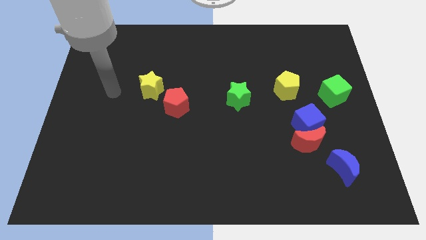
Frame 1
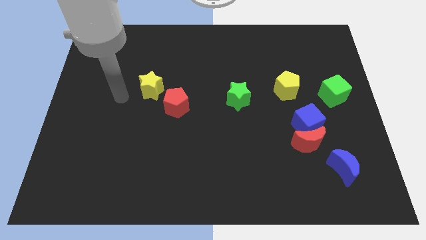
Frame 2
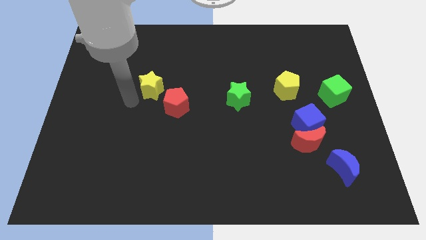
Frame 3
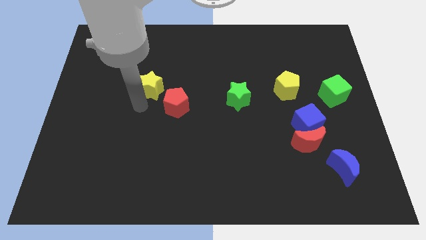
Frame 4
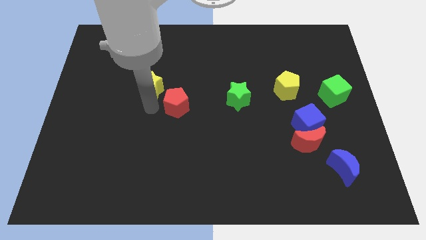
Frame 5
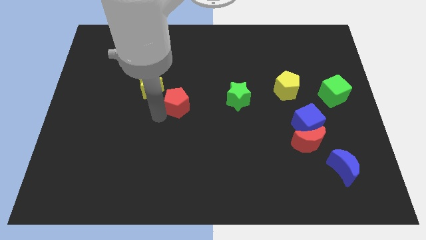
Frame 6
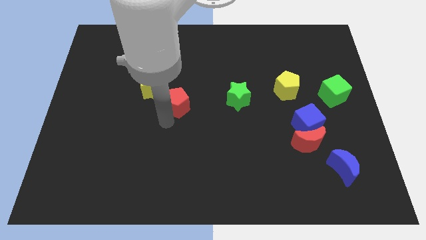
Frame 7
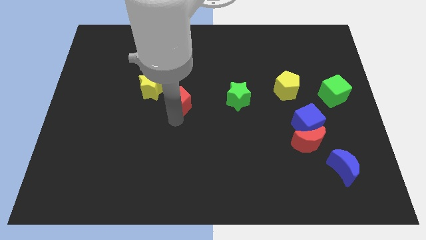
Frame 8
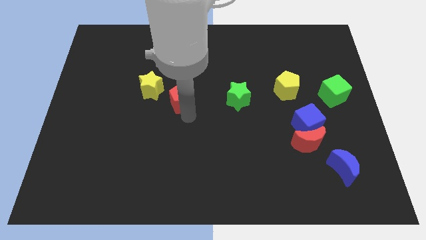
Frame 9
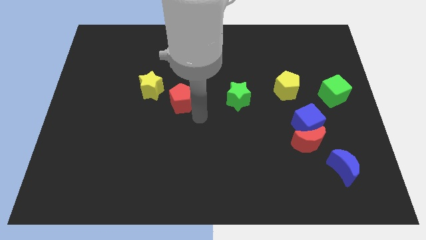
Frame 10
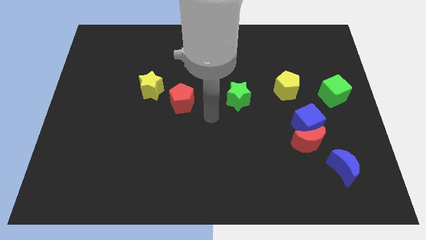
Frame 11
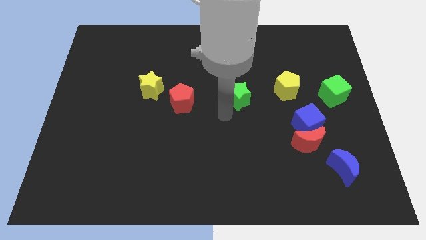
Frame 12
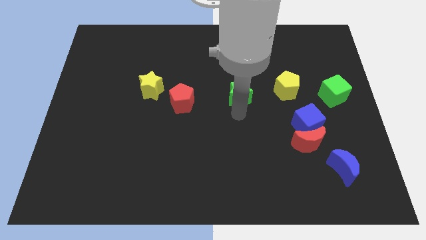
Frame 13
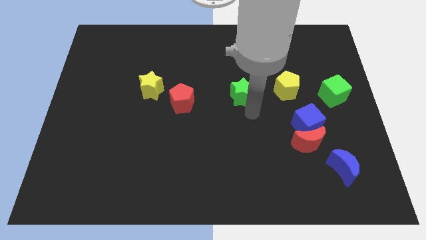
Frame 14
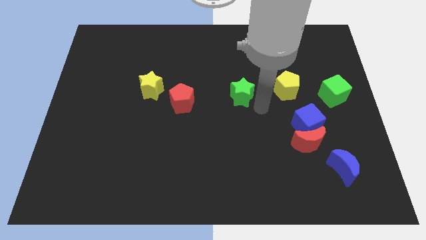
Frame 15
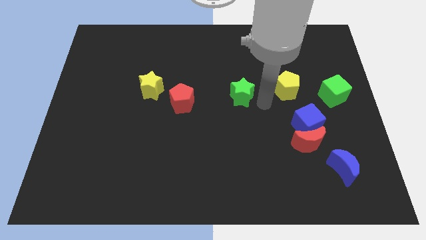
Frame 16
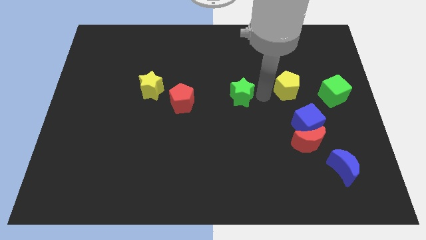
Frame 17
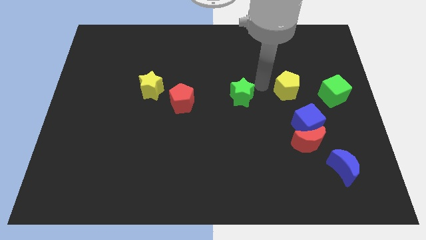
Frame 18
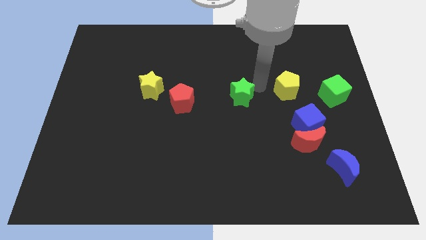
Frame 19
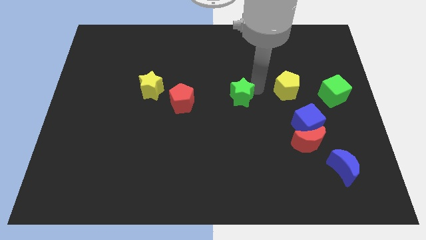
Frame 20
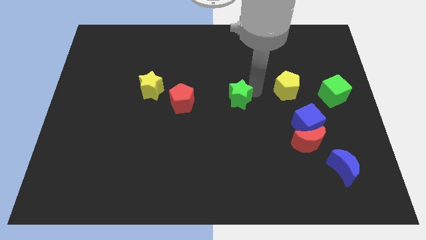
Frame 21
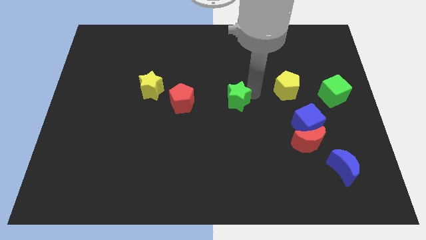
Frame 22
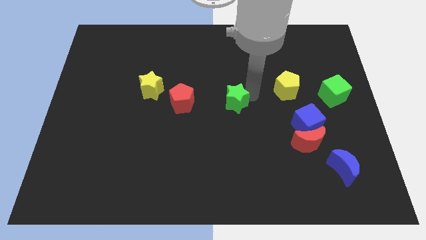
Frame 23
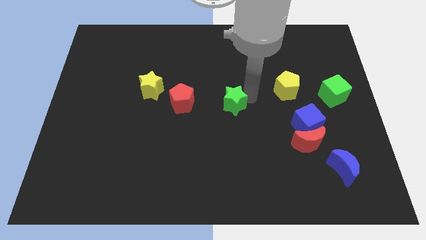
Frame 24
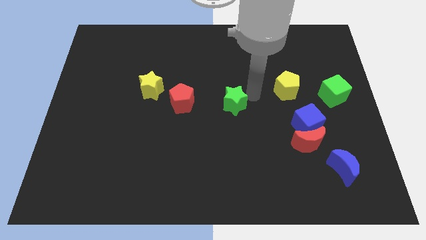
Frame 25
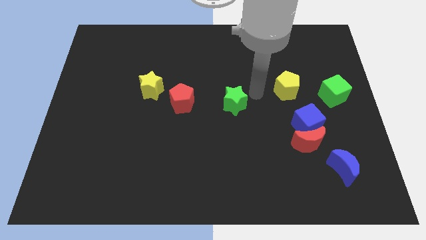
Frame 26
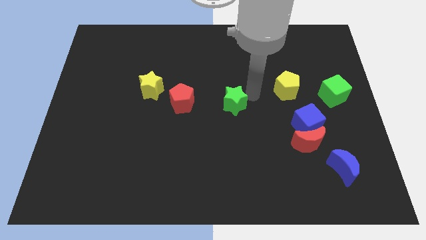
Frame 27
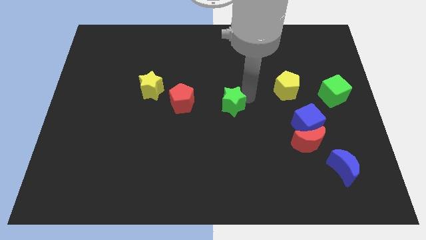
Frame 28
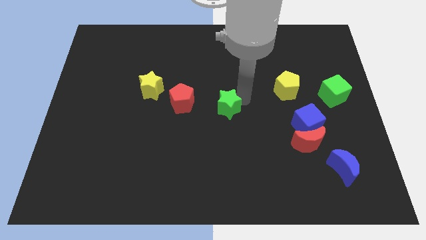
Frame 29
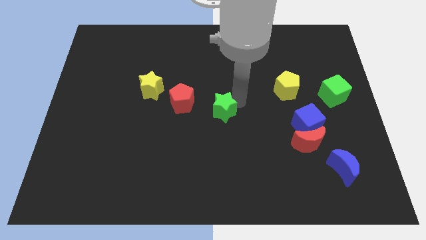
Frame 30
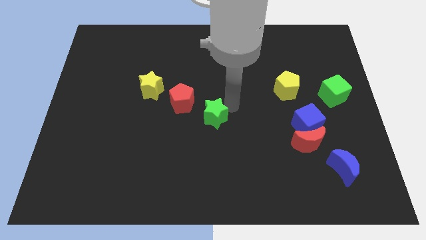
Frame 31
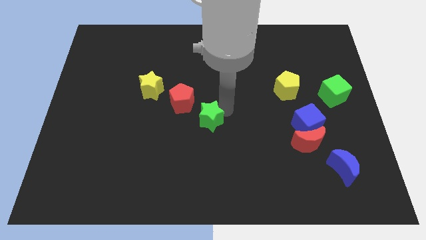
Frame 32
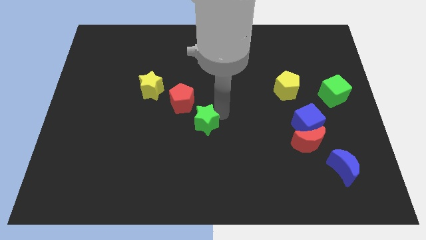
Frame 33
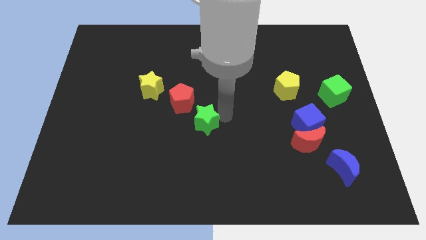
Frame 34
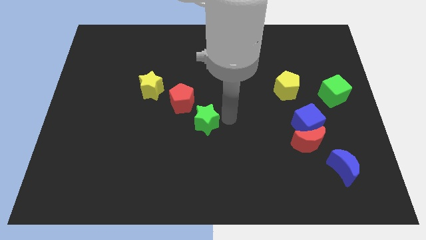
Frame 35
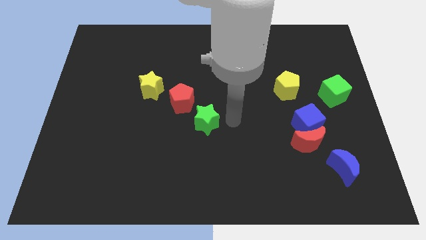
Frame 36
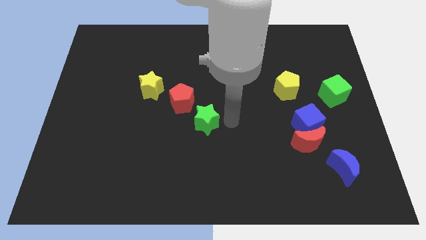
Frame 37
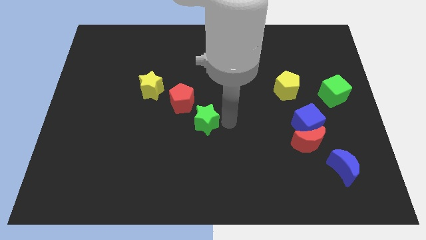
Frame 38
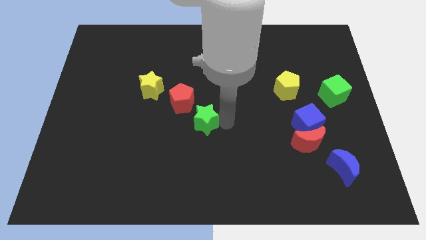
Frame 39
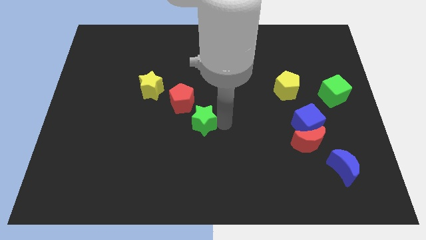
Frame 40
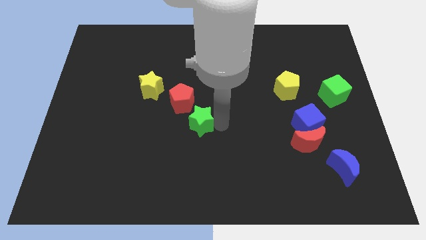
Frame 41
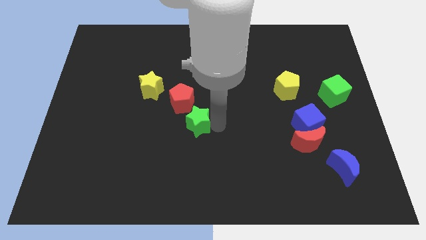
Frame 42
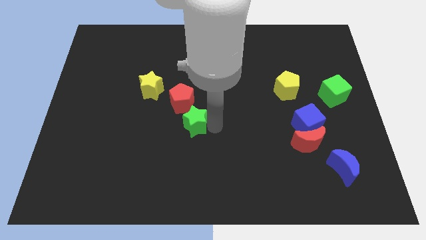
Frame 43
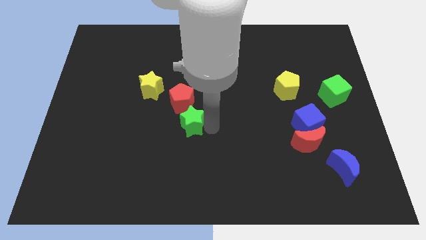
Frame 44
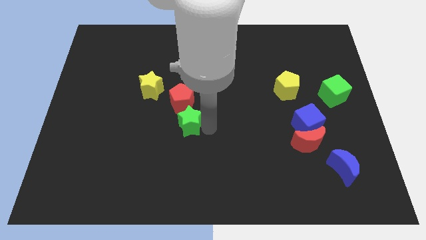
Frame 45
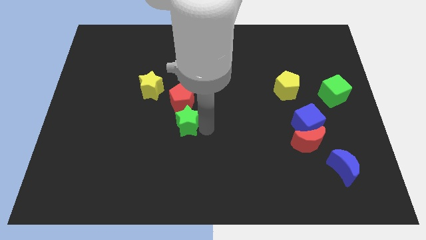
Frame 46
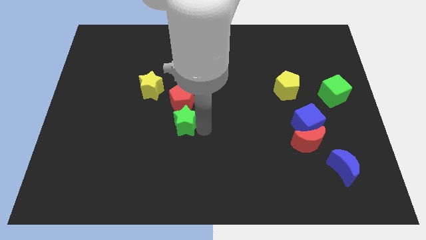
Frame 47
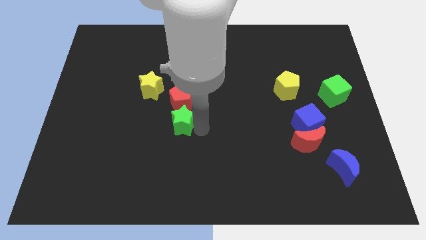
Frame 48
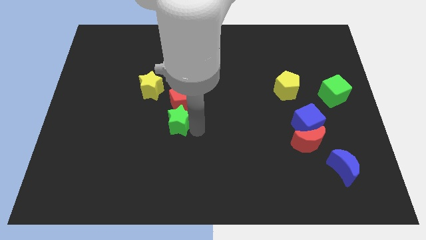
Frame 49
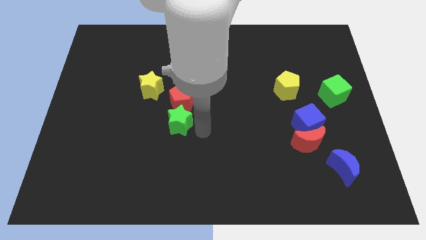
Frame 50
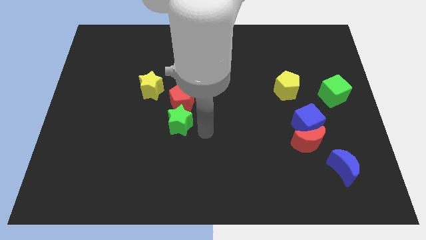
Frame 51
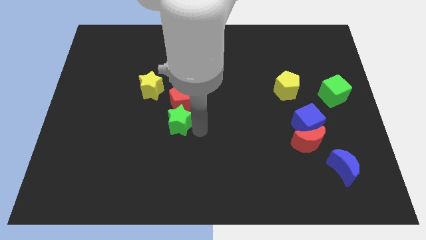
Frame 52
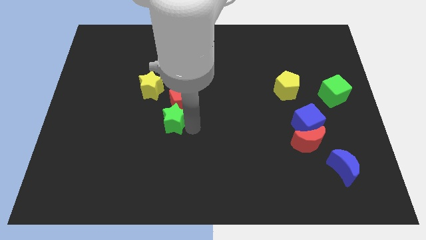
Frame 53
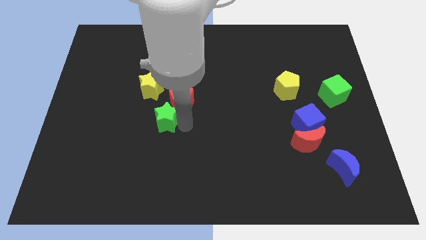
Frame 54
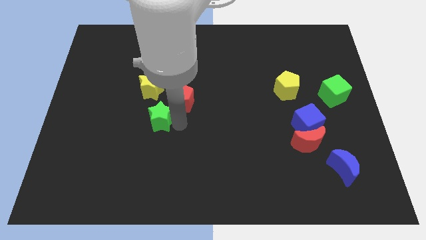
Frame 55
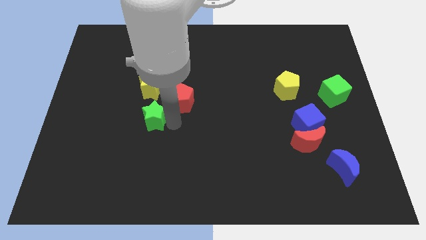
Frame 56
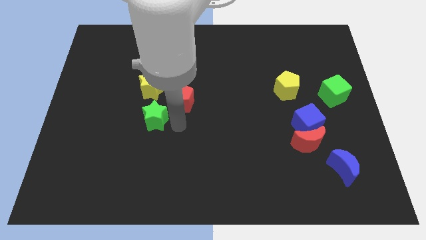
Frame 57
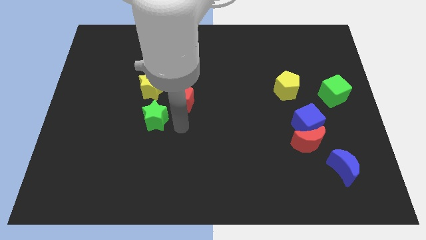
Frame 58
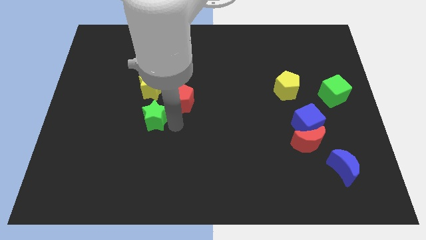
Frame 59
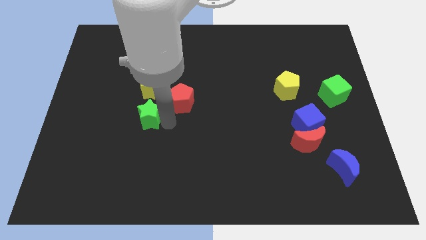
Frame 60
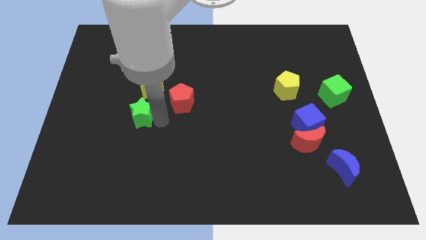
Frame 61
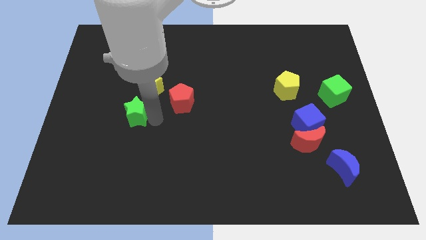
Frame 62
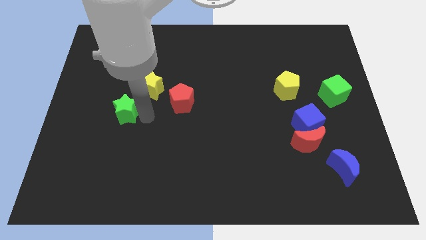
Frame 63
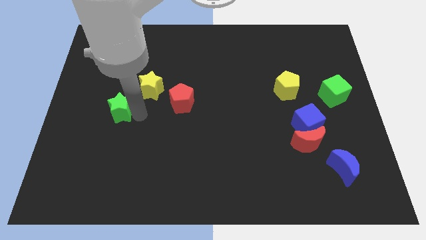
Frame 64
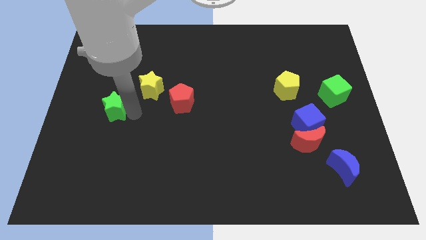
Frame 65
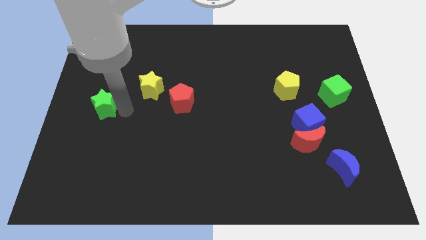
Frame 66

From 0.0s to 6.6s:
move the green star to the left side of the board

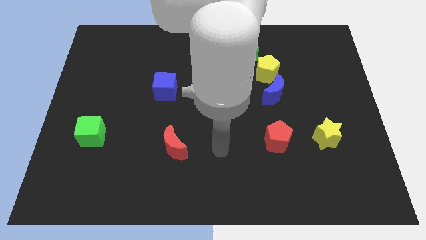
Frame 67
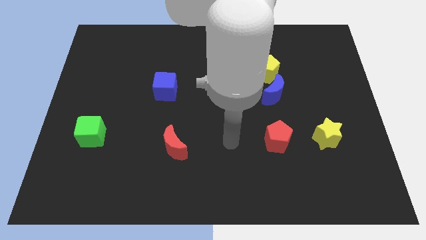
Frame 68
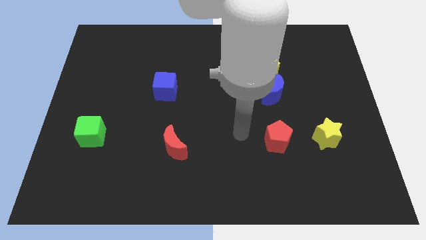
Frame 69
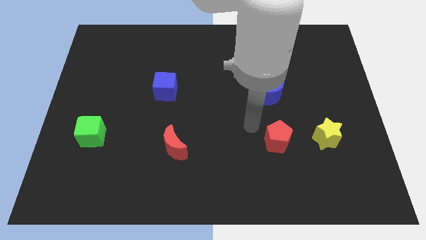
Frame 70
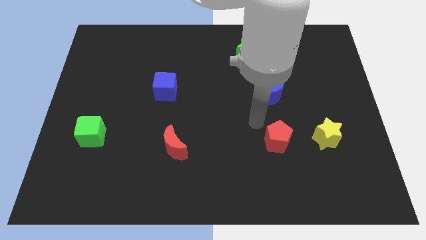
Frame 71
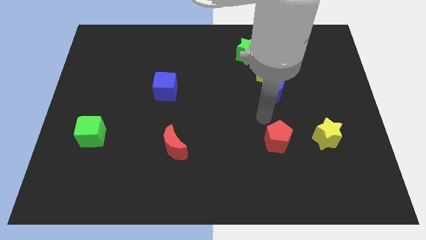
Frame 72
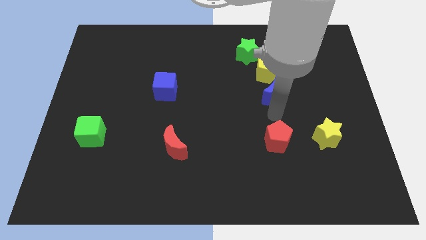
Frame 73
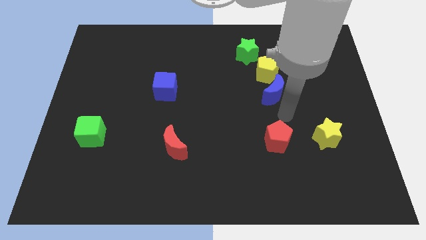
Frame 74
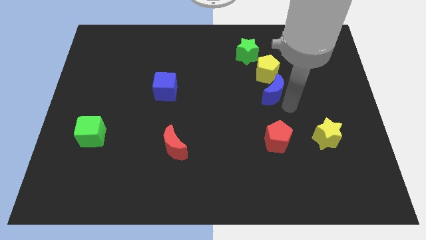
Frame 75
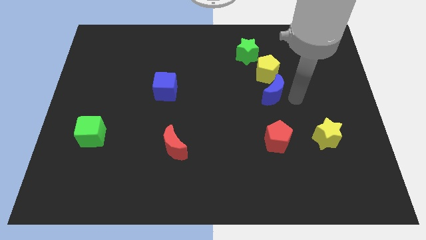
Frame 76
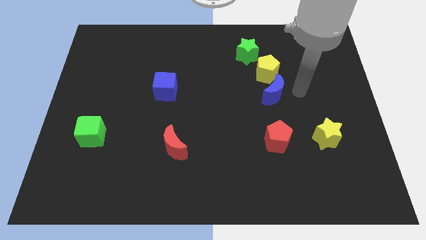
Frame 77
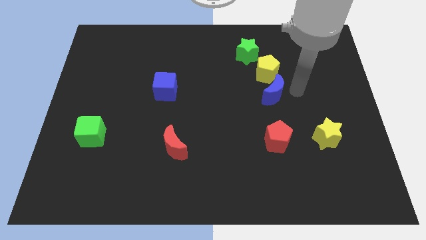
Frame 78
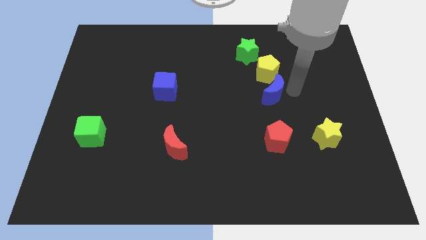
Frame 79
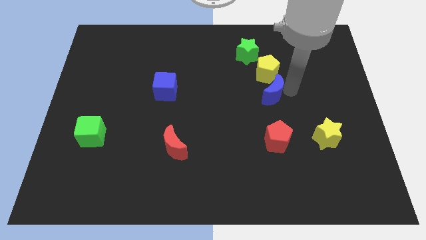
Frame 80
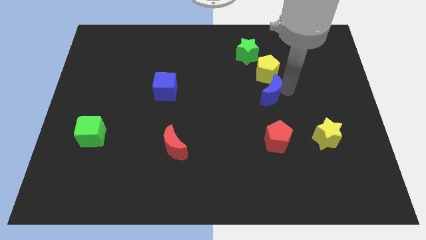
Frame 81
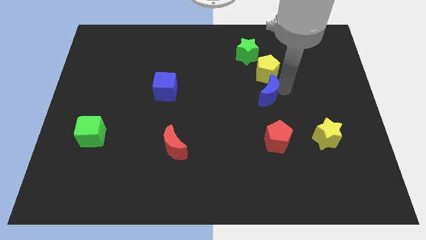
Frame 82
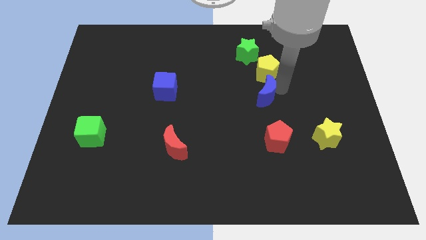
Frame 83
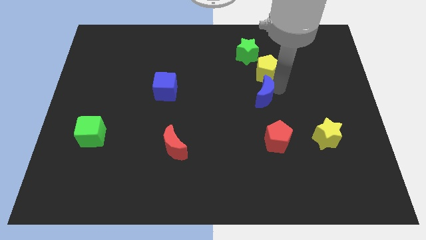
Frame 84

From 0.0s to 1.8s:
slide the blue moon to the middle of the board
